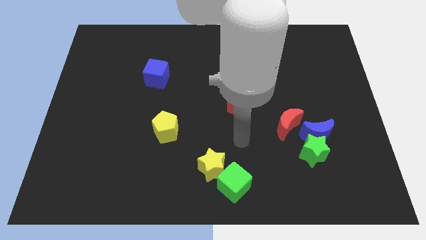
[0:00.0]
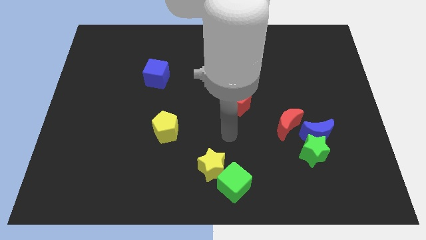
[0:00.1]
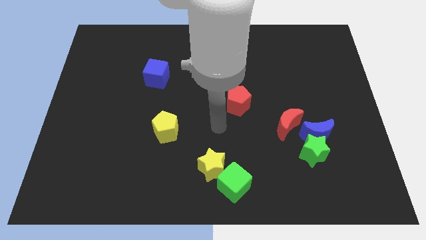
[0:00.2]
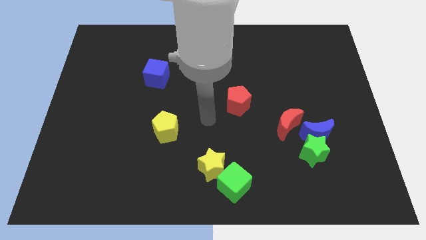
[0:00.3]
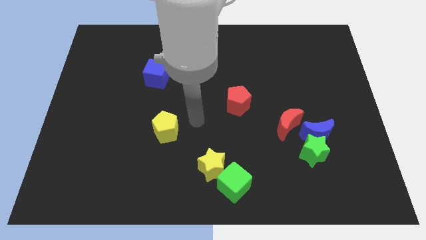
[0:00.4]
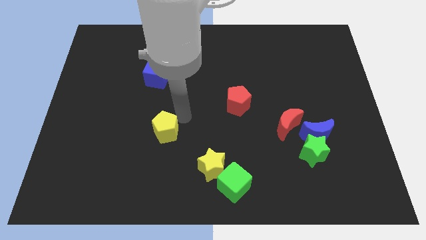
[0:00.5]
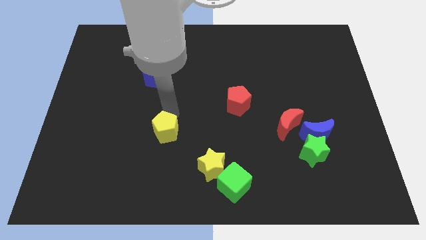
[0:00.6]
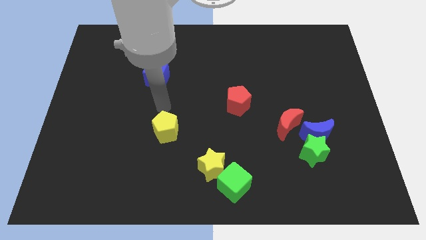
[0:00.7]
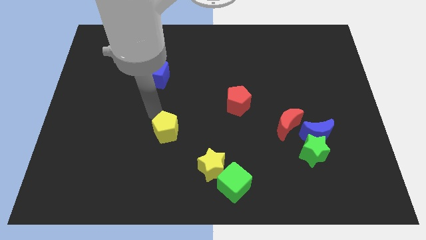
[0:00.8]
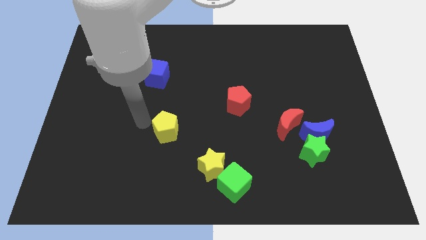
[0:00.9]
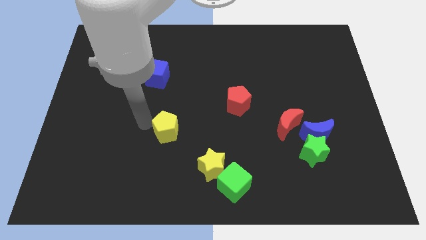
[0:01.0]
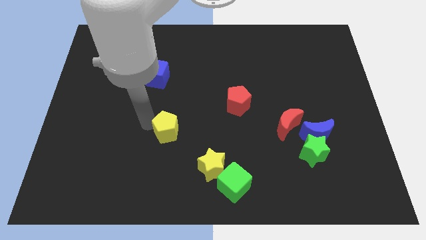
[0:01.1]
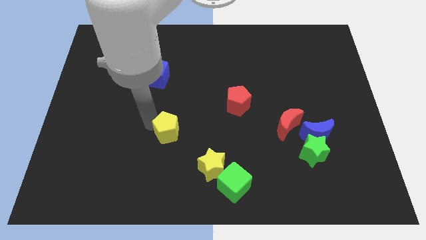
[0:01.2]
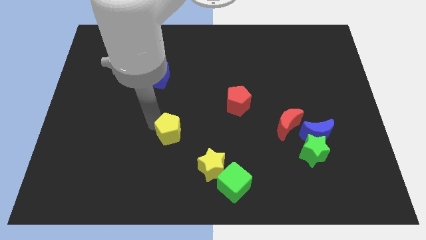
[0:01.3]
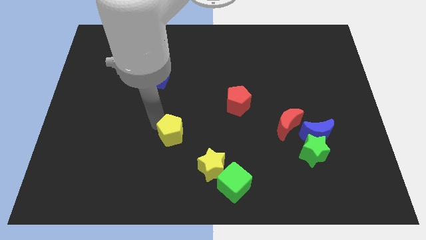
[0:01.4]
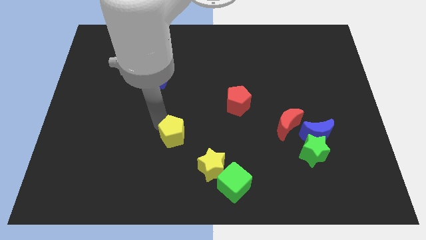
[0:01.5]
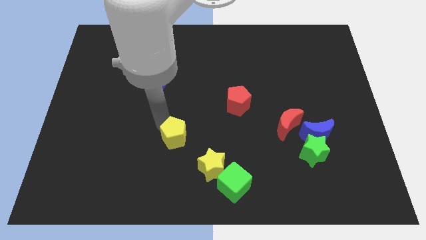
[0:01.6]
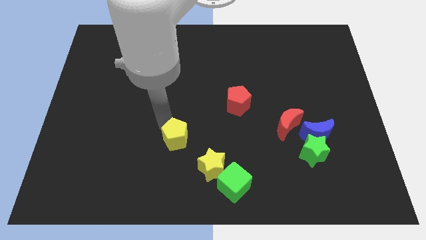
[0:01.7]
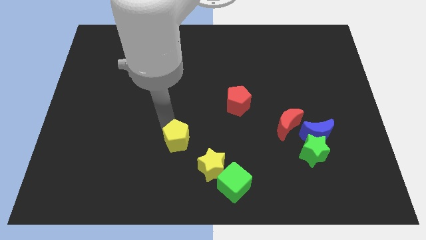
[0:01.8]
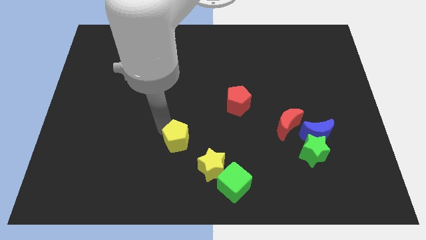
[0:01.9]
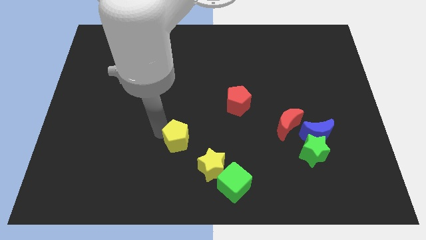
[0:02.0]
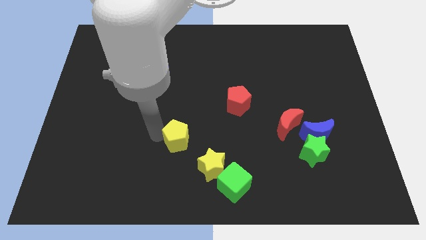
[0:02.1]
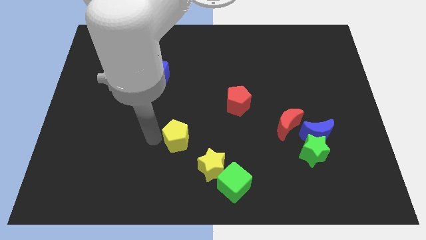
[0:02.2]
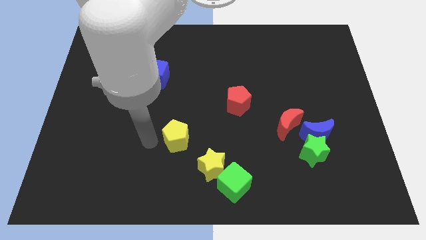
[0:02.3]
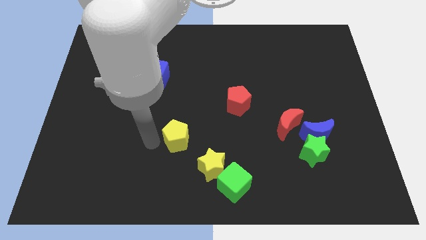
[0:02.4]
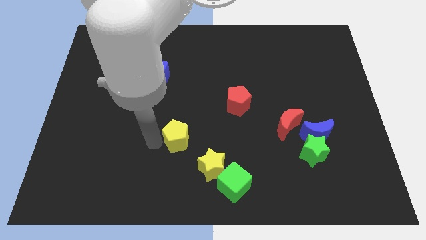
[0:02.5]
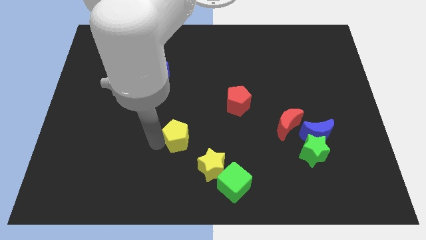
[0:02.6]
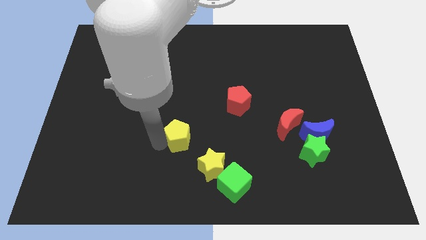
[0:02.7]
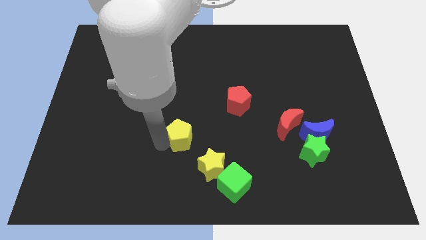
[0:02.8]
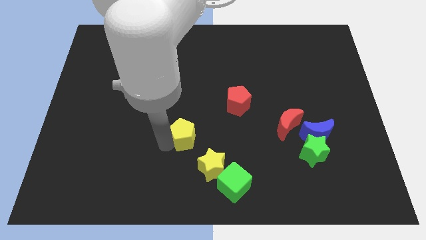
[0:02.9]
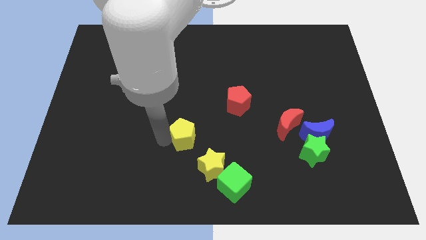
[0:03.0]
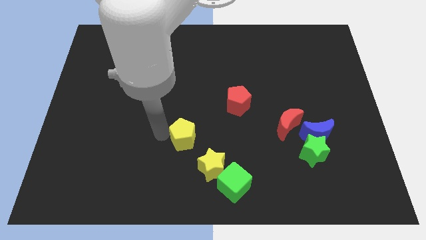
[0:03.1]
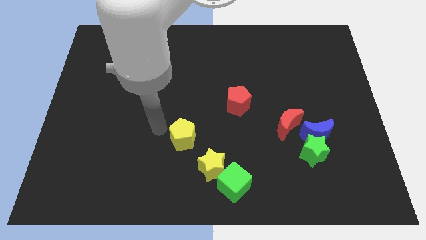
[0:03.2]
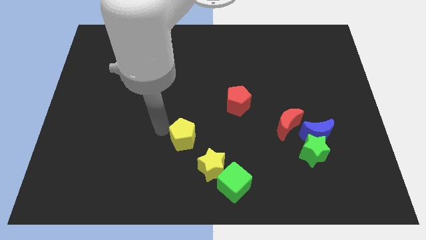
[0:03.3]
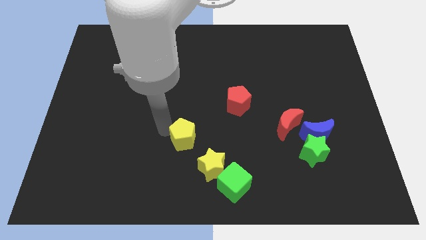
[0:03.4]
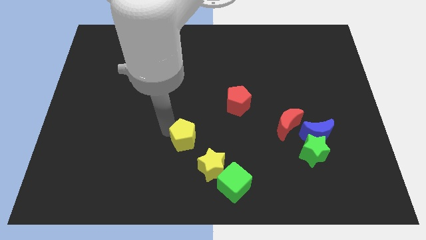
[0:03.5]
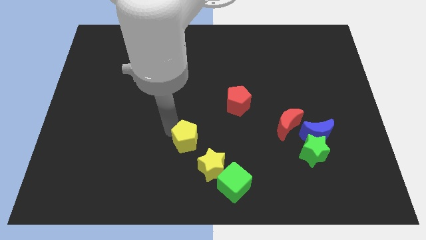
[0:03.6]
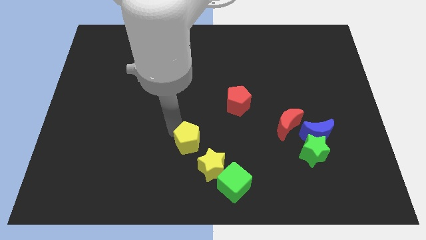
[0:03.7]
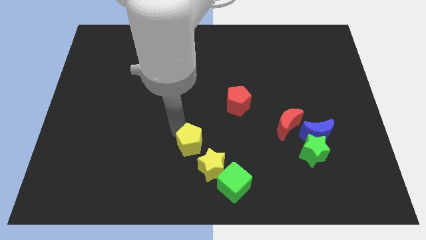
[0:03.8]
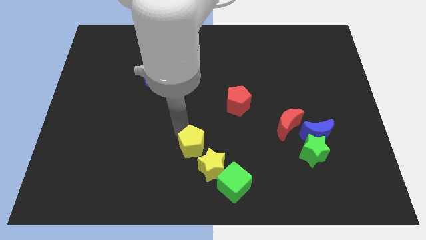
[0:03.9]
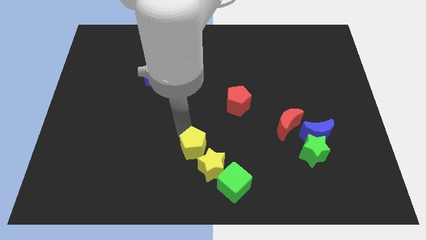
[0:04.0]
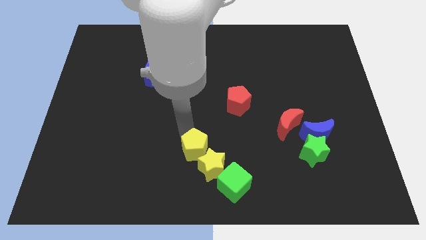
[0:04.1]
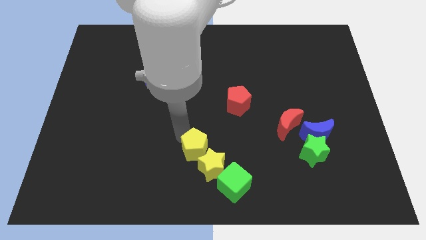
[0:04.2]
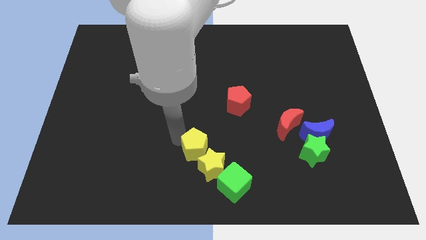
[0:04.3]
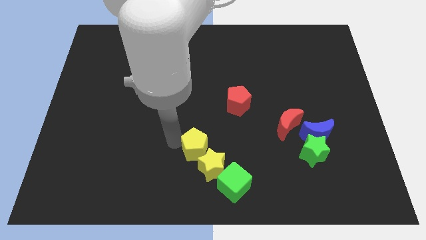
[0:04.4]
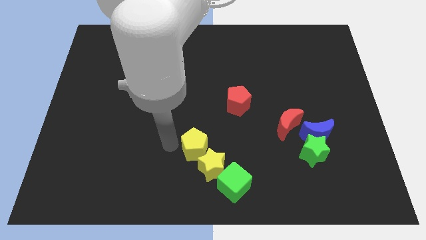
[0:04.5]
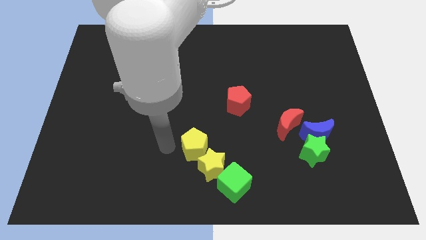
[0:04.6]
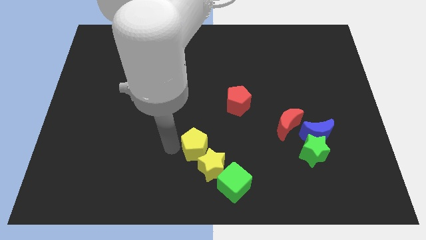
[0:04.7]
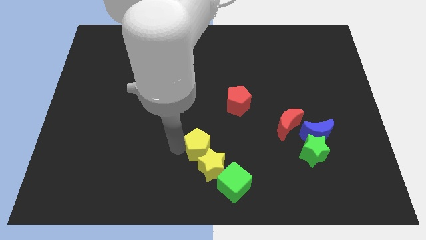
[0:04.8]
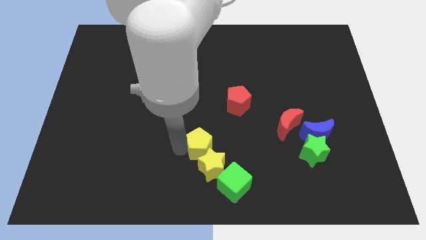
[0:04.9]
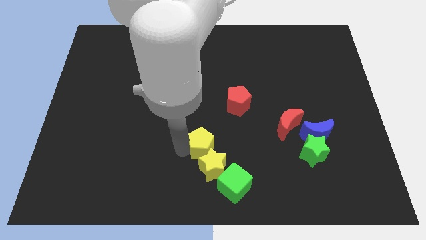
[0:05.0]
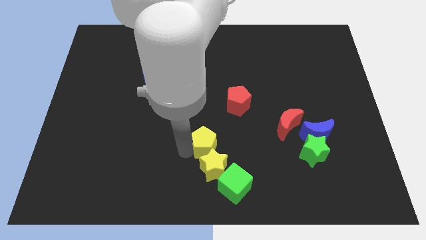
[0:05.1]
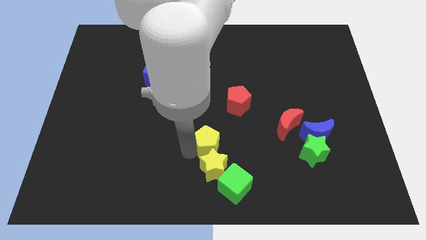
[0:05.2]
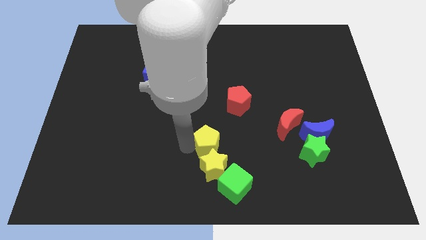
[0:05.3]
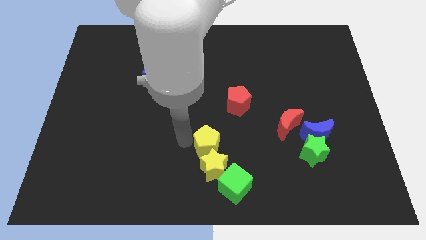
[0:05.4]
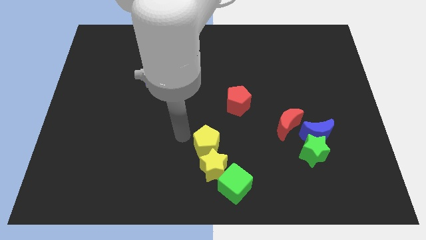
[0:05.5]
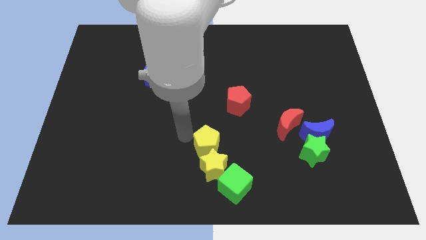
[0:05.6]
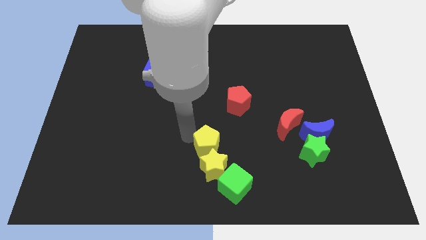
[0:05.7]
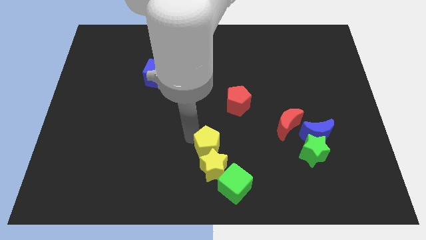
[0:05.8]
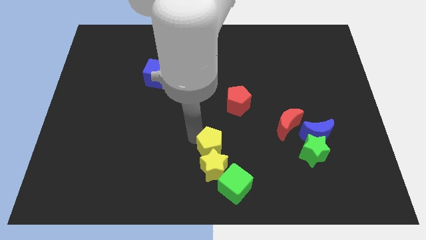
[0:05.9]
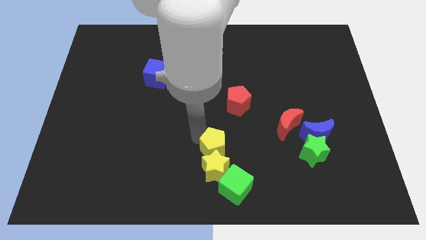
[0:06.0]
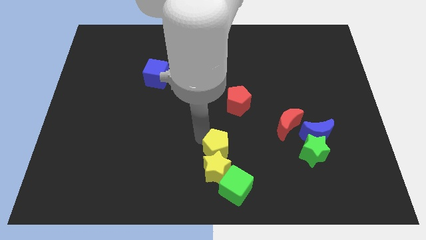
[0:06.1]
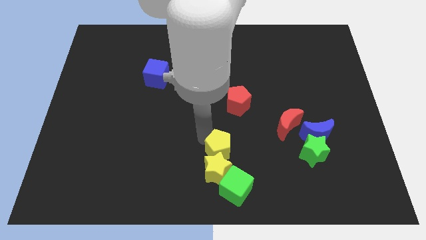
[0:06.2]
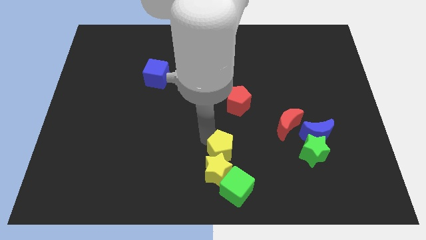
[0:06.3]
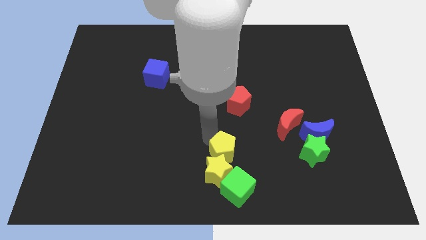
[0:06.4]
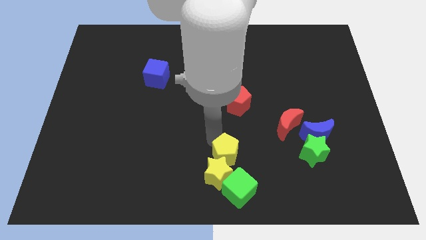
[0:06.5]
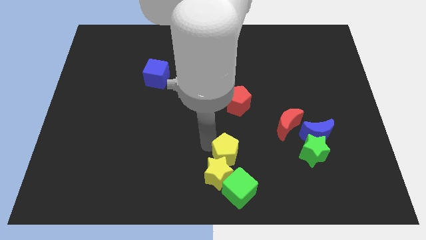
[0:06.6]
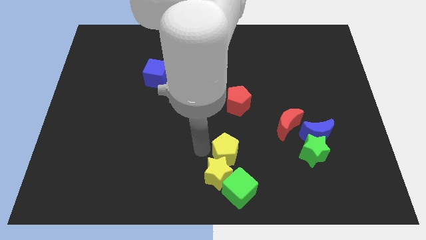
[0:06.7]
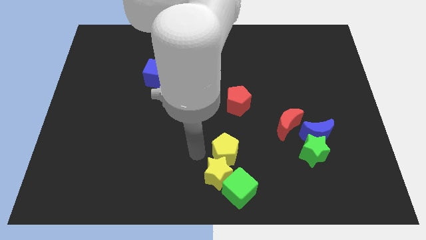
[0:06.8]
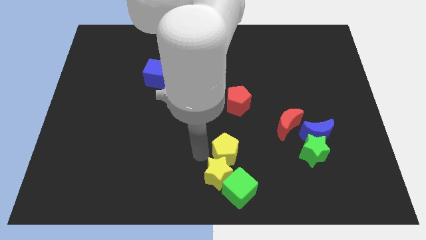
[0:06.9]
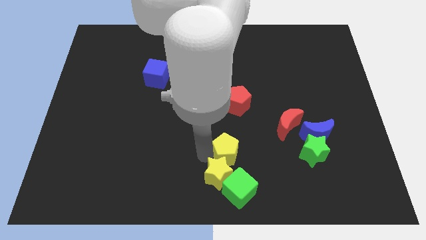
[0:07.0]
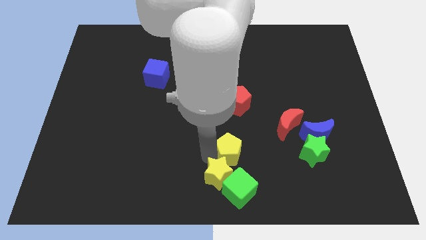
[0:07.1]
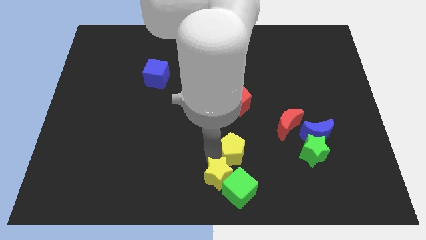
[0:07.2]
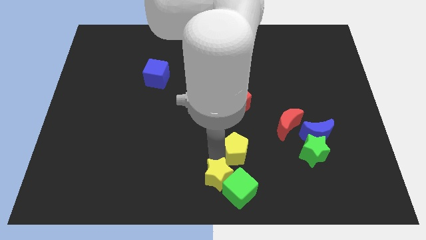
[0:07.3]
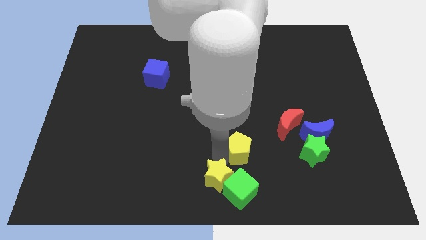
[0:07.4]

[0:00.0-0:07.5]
slide the yellow pentagon to the left side of the green star

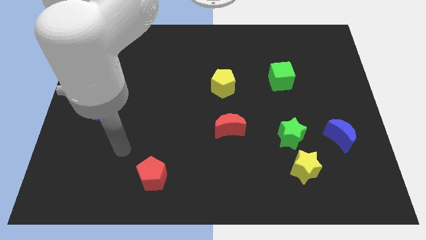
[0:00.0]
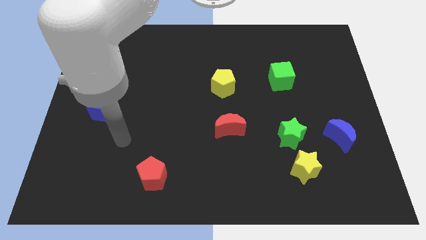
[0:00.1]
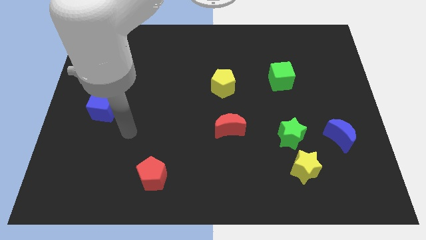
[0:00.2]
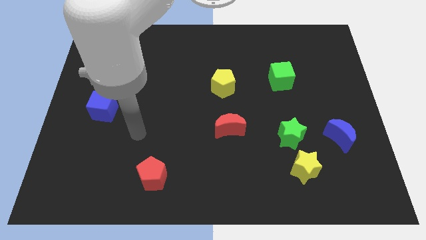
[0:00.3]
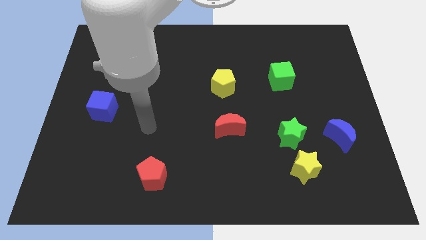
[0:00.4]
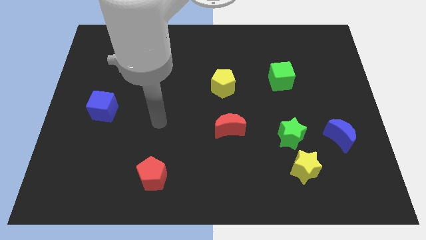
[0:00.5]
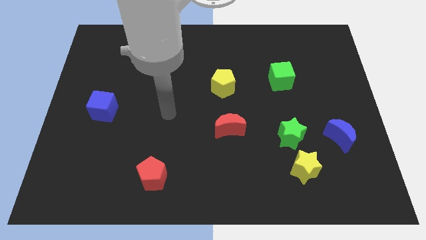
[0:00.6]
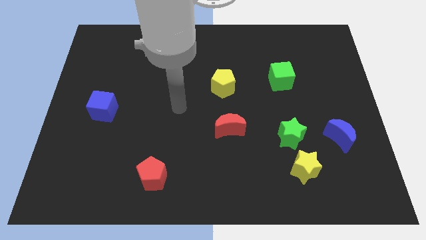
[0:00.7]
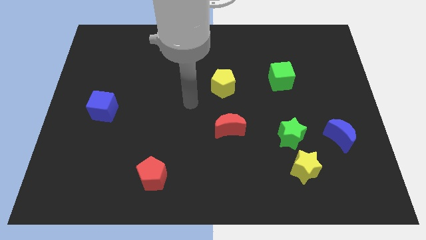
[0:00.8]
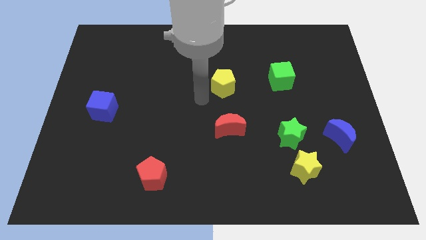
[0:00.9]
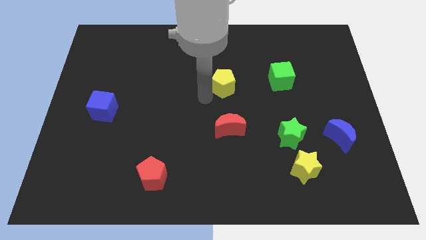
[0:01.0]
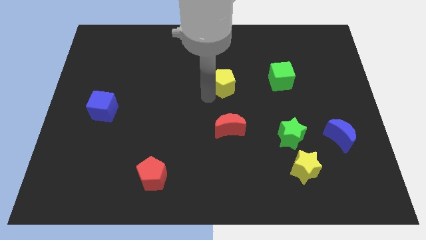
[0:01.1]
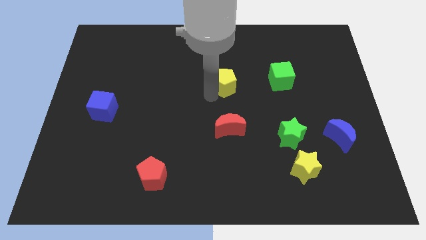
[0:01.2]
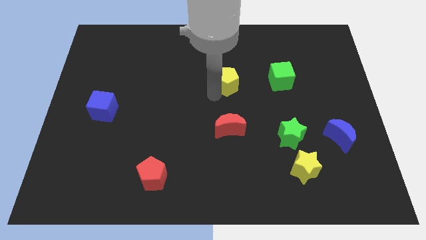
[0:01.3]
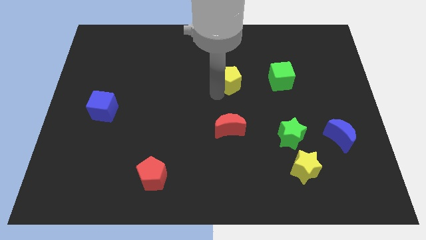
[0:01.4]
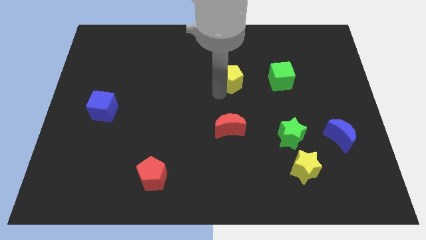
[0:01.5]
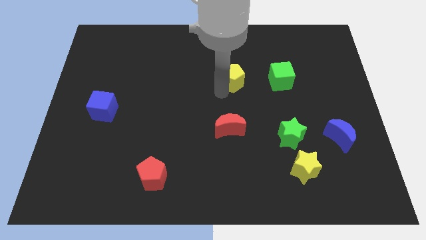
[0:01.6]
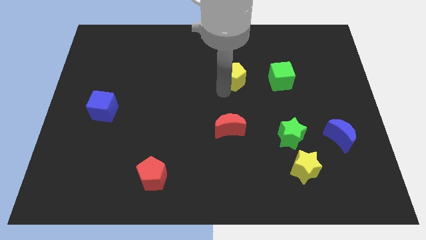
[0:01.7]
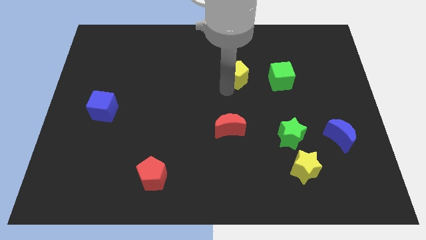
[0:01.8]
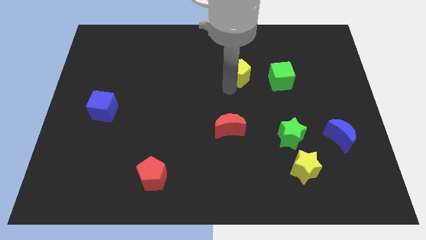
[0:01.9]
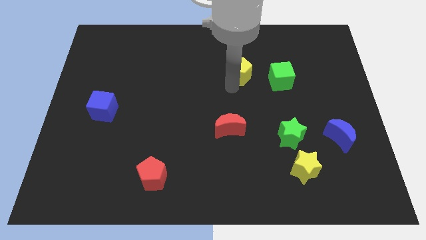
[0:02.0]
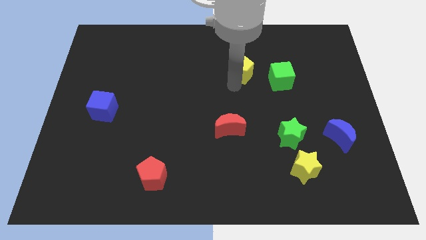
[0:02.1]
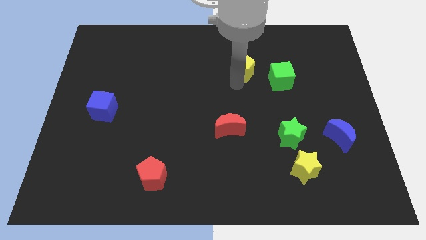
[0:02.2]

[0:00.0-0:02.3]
put the yellow pentagon to the top left of the green cube
